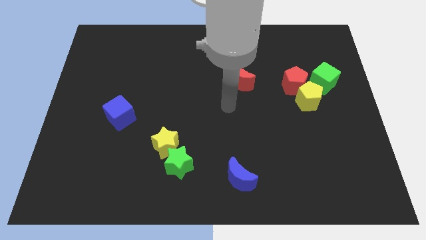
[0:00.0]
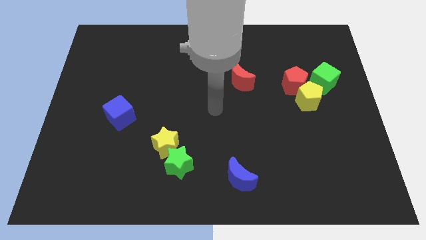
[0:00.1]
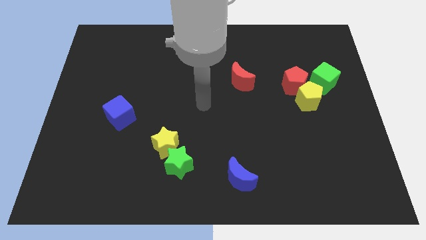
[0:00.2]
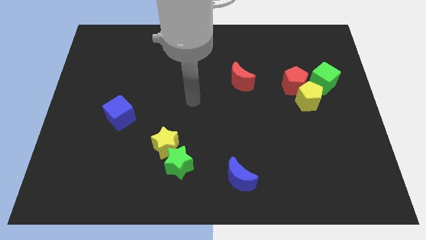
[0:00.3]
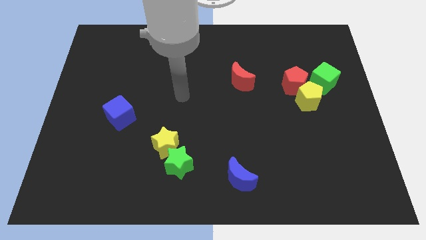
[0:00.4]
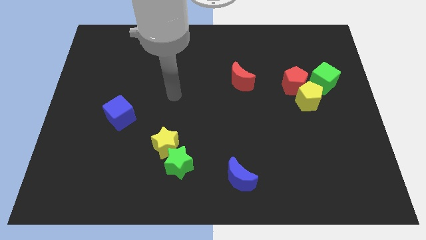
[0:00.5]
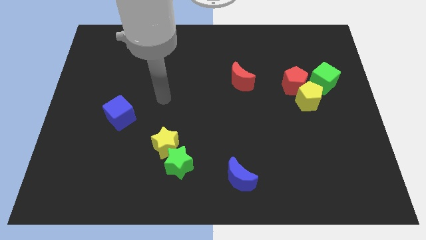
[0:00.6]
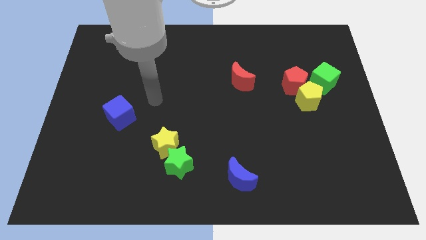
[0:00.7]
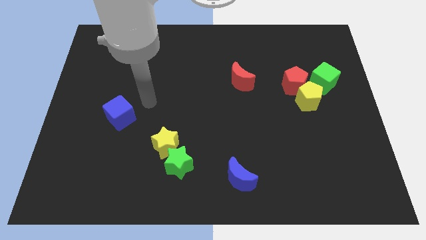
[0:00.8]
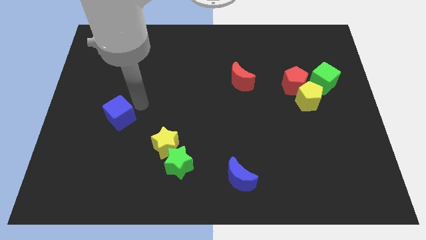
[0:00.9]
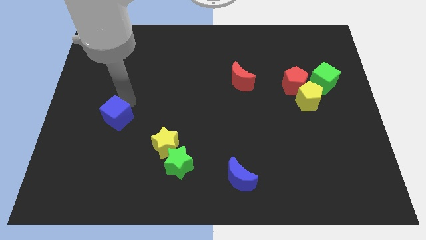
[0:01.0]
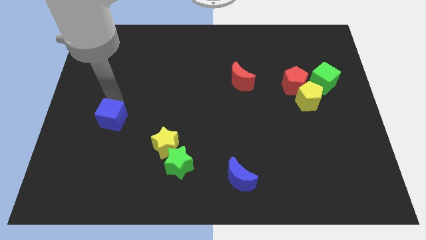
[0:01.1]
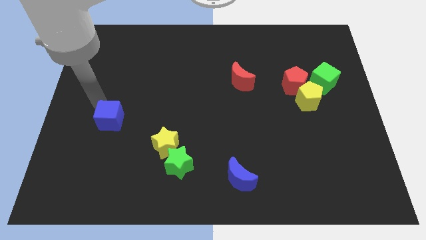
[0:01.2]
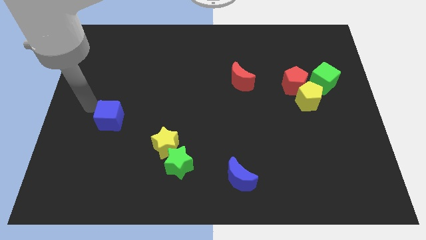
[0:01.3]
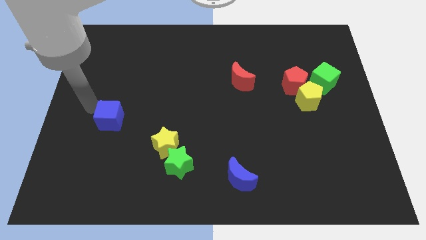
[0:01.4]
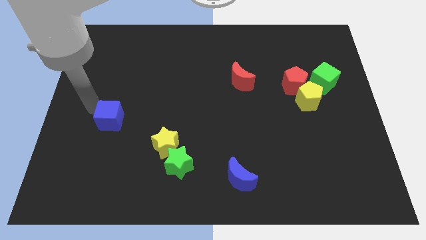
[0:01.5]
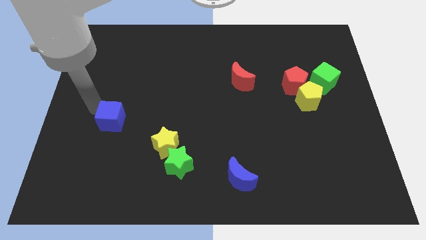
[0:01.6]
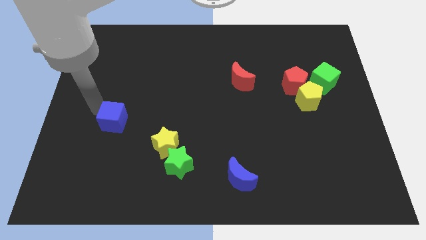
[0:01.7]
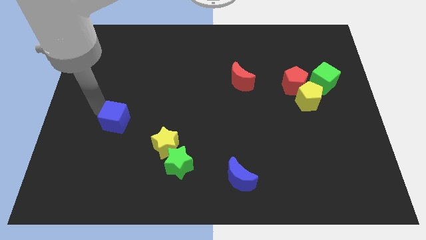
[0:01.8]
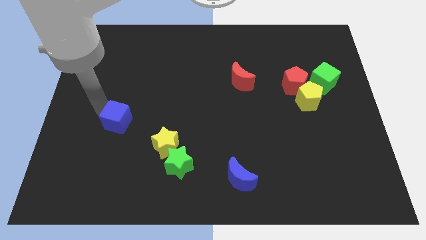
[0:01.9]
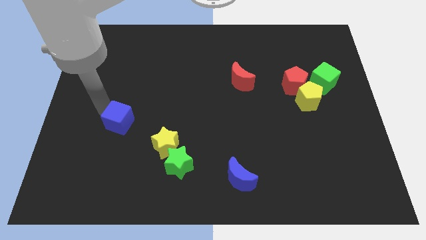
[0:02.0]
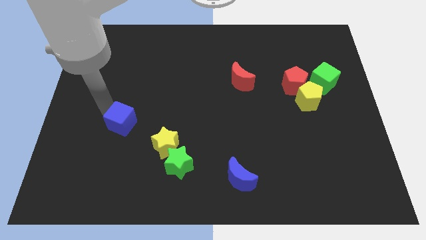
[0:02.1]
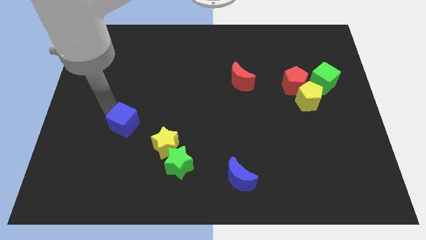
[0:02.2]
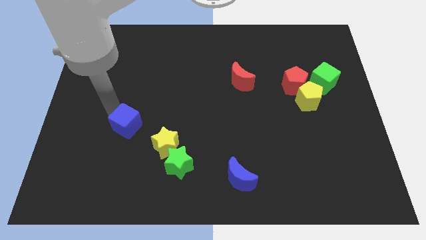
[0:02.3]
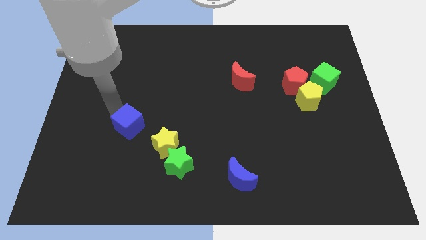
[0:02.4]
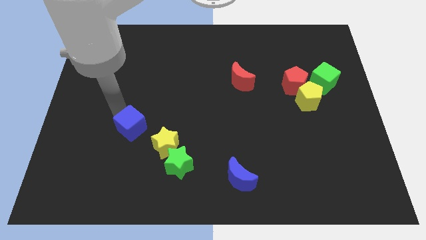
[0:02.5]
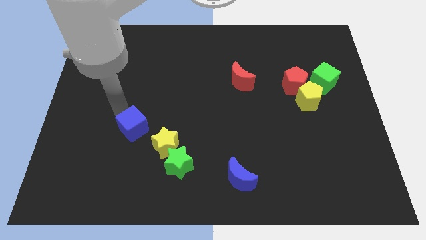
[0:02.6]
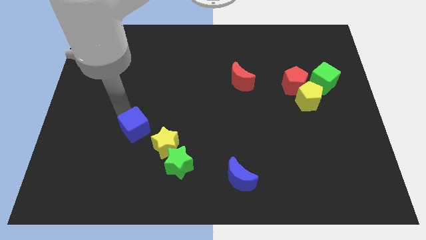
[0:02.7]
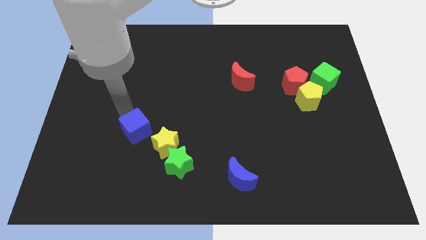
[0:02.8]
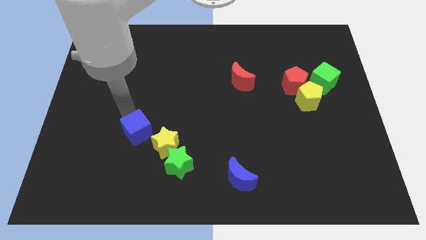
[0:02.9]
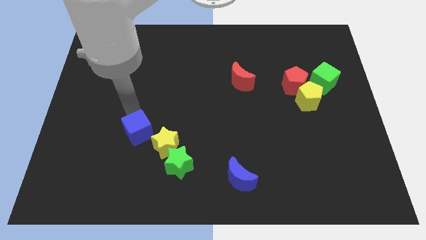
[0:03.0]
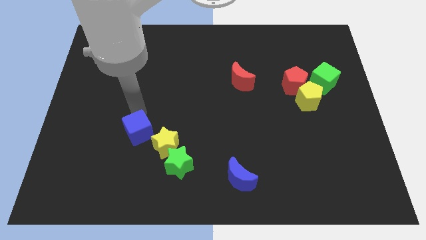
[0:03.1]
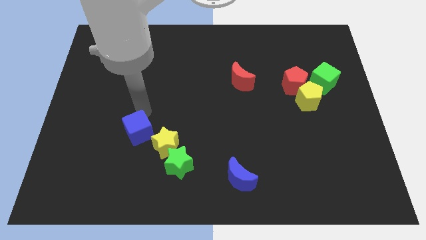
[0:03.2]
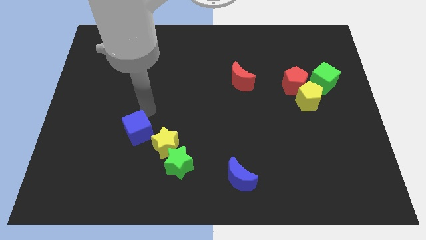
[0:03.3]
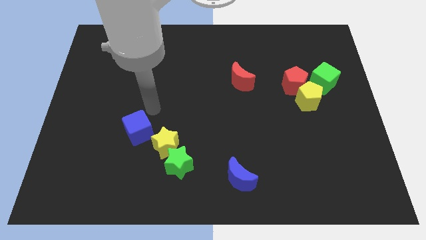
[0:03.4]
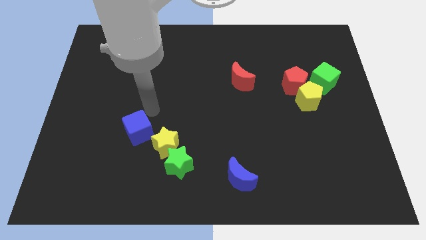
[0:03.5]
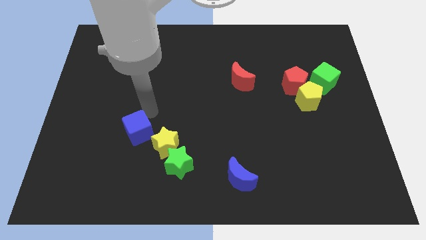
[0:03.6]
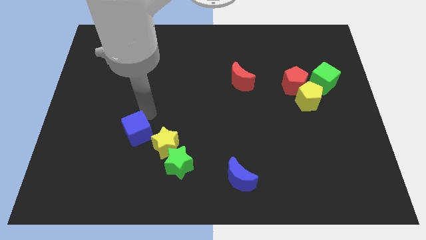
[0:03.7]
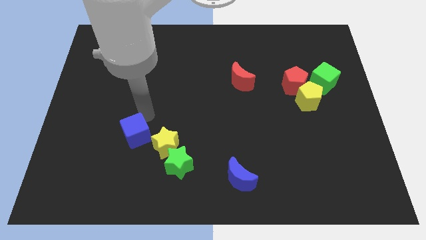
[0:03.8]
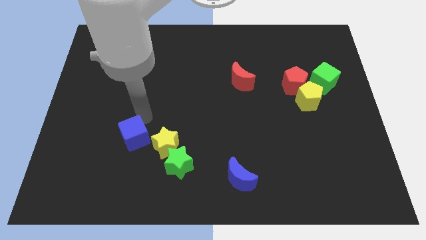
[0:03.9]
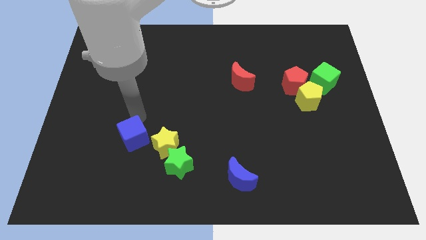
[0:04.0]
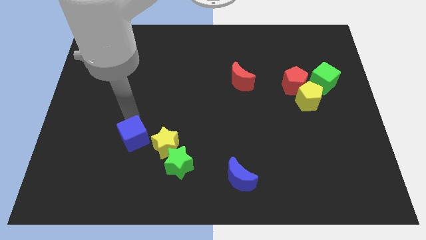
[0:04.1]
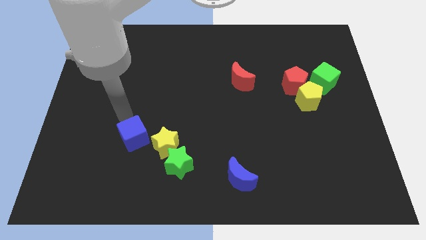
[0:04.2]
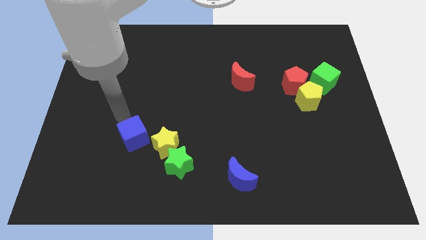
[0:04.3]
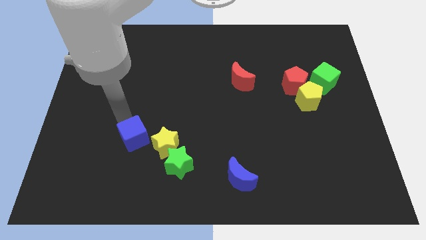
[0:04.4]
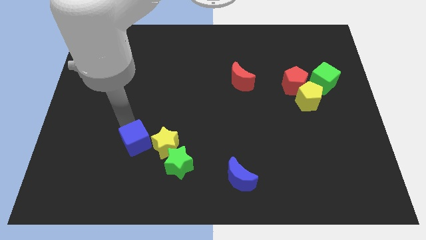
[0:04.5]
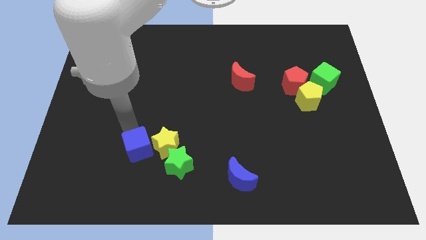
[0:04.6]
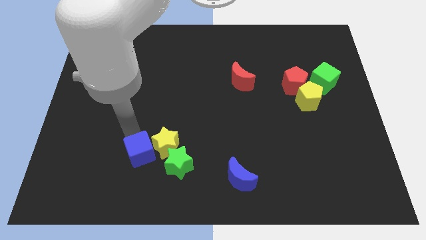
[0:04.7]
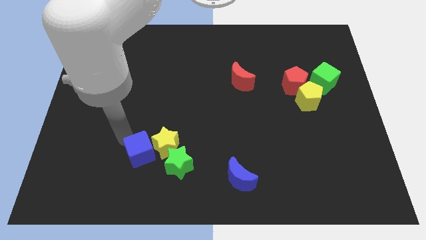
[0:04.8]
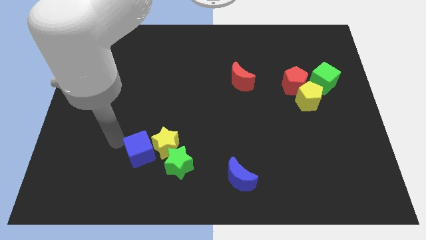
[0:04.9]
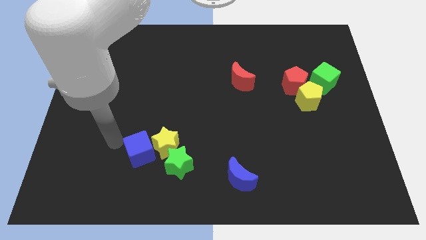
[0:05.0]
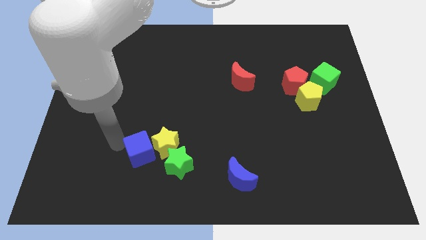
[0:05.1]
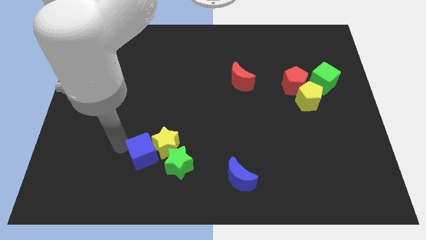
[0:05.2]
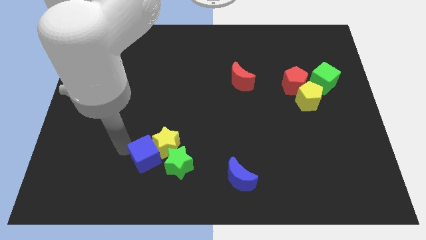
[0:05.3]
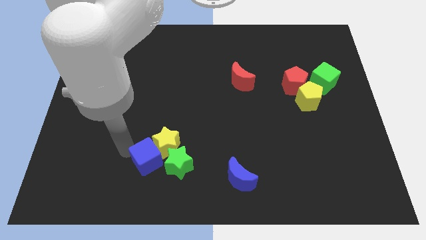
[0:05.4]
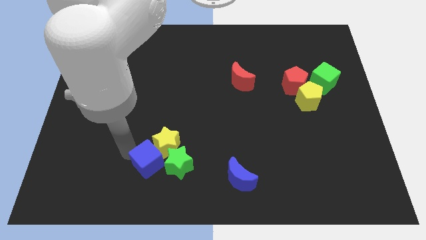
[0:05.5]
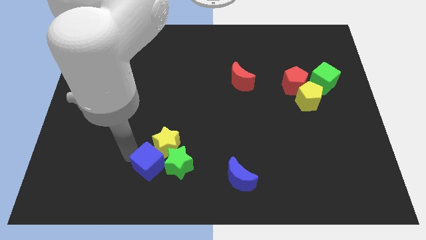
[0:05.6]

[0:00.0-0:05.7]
put the blue cube close to the green star

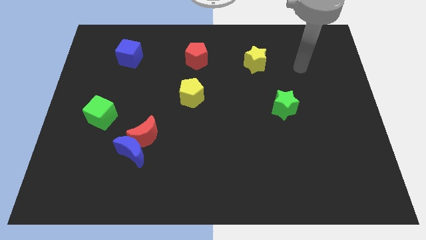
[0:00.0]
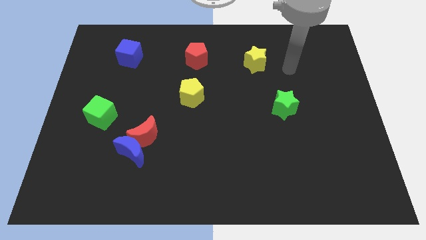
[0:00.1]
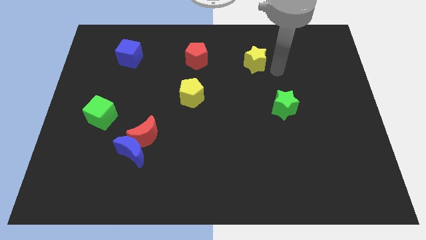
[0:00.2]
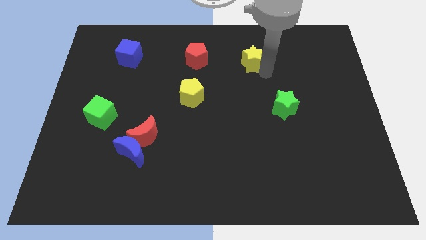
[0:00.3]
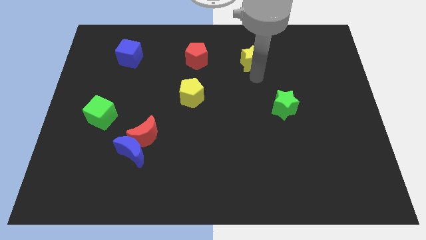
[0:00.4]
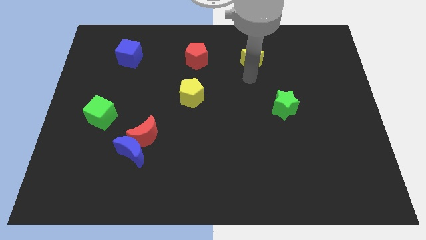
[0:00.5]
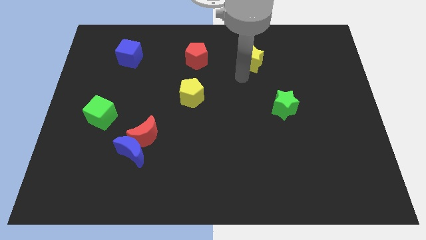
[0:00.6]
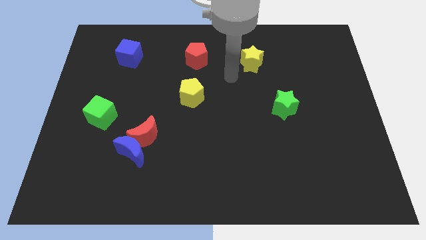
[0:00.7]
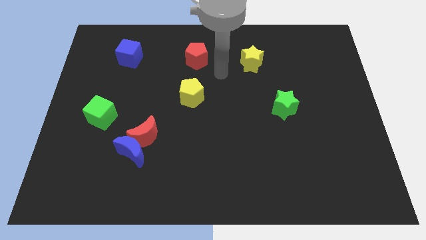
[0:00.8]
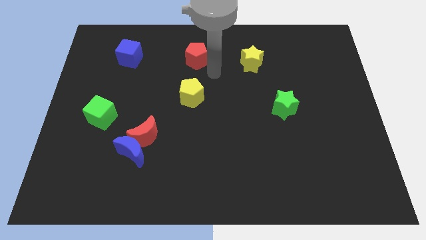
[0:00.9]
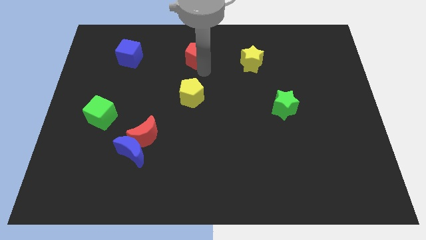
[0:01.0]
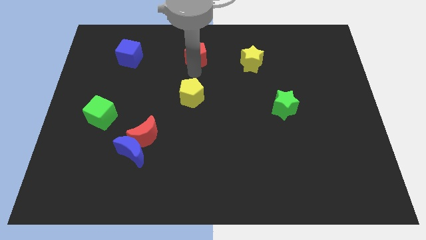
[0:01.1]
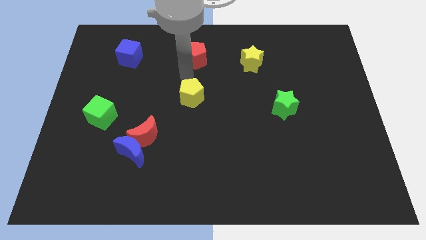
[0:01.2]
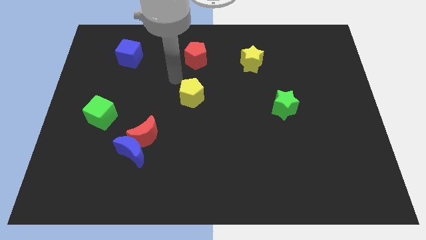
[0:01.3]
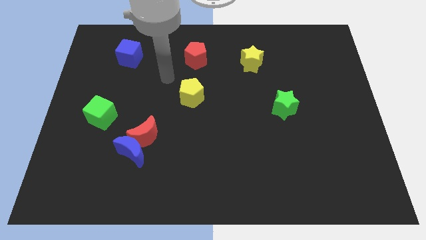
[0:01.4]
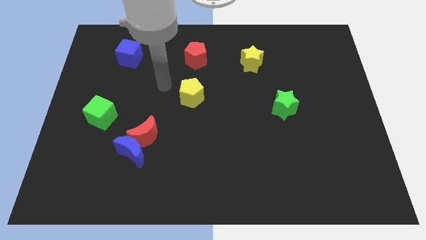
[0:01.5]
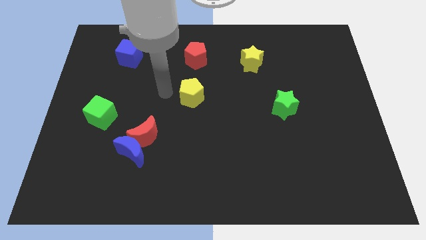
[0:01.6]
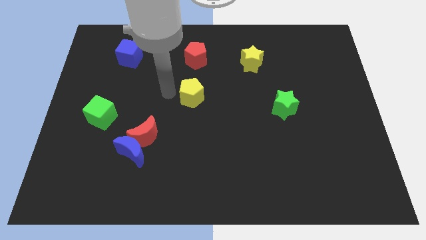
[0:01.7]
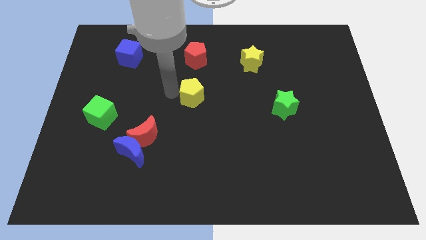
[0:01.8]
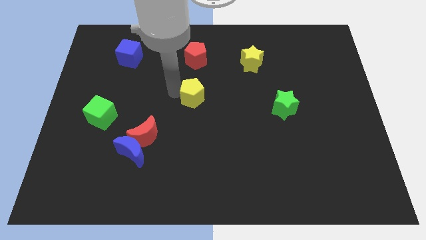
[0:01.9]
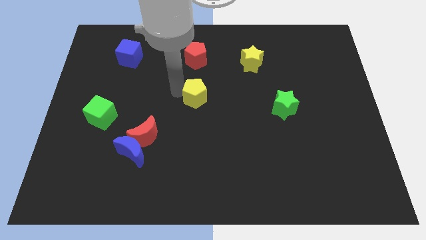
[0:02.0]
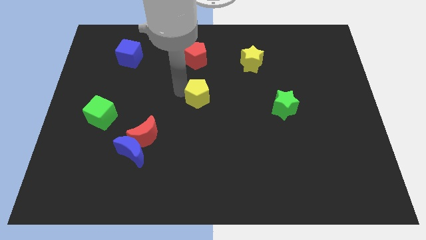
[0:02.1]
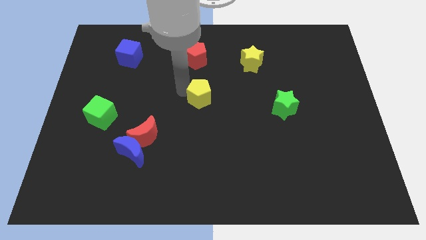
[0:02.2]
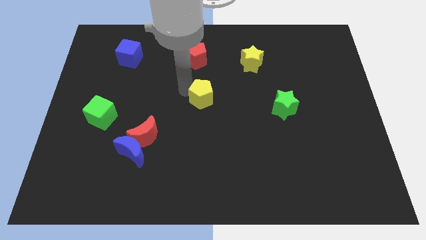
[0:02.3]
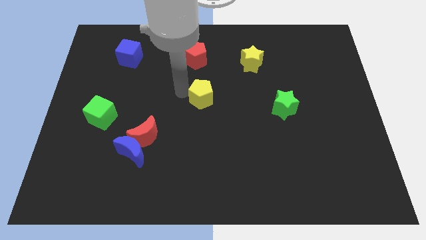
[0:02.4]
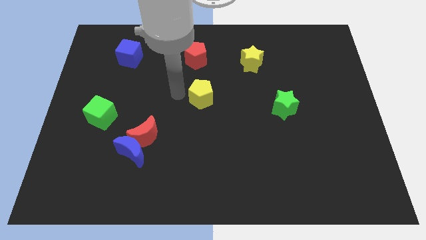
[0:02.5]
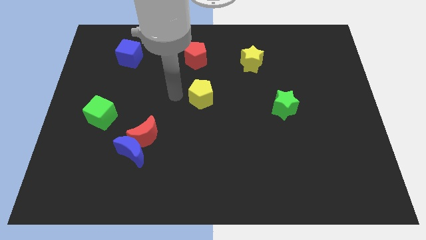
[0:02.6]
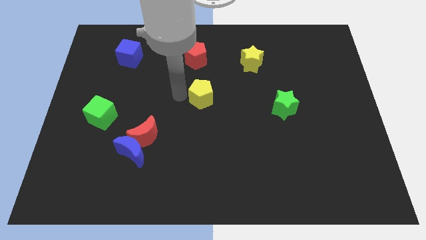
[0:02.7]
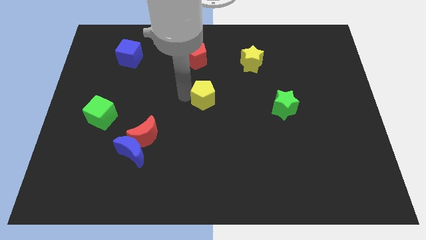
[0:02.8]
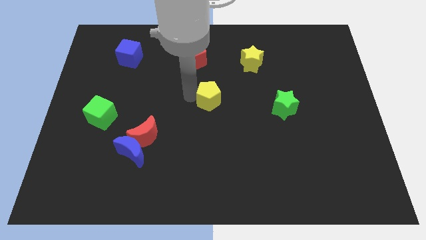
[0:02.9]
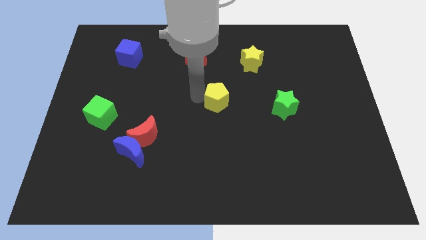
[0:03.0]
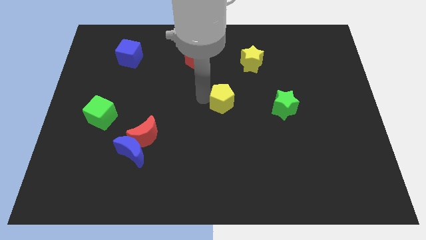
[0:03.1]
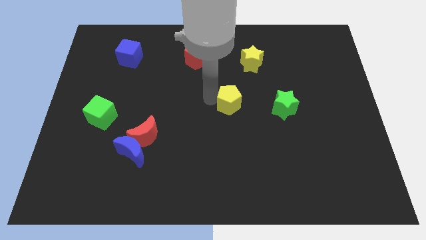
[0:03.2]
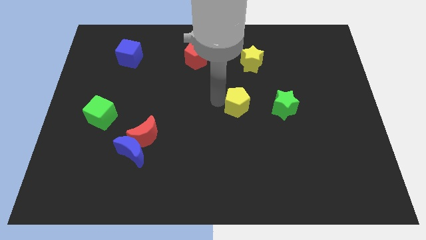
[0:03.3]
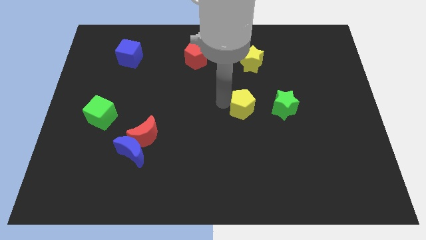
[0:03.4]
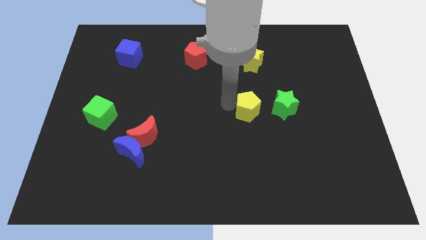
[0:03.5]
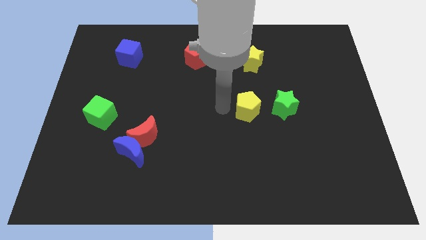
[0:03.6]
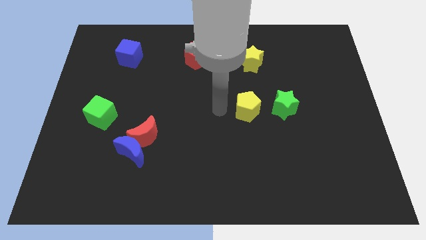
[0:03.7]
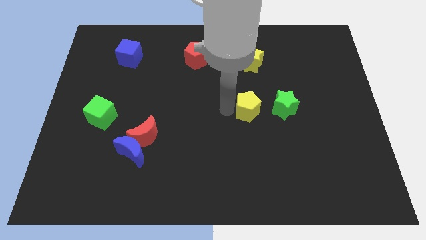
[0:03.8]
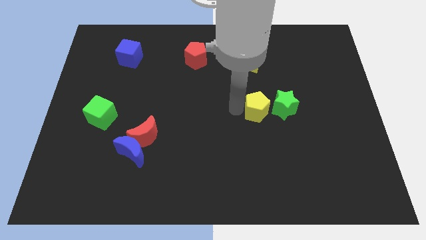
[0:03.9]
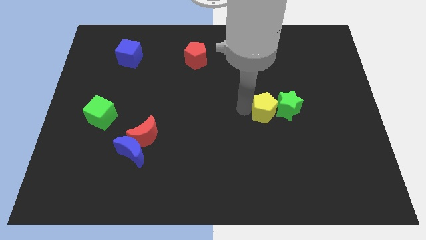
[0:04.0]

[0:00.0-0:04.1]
move the yellow pentagon next to the green star
